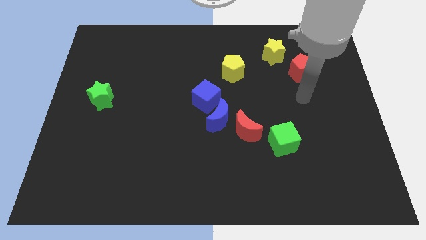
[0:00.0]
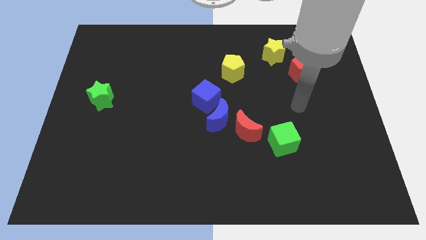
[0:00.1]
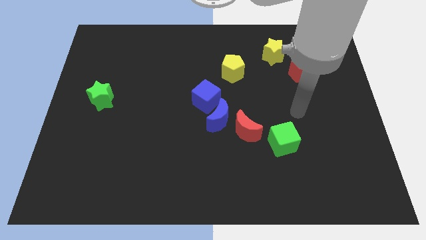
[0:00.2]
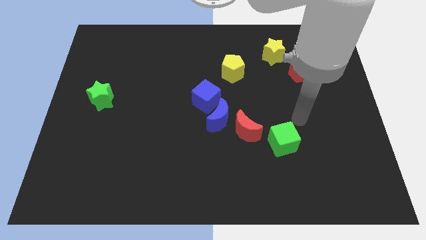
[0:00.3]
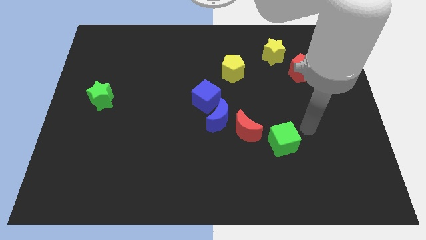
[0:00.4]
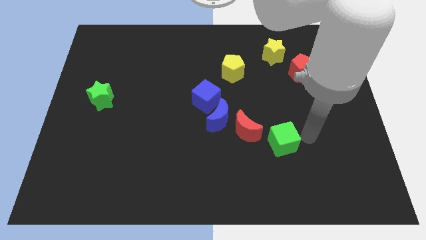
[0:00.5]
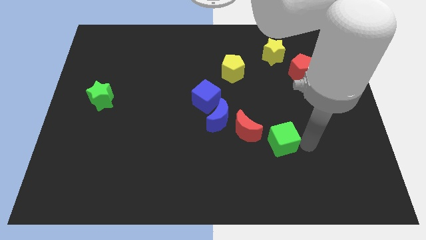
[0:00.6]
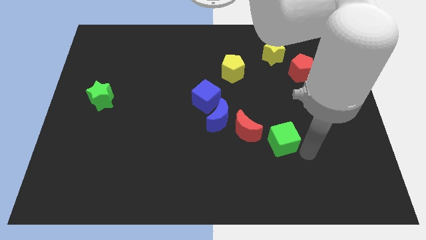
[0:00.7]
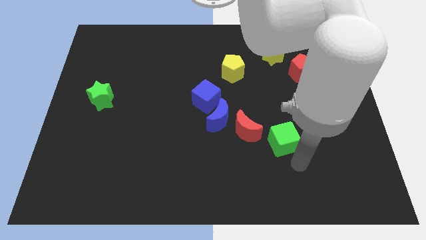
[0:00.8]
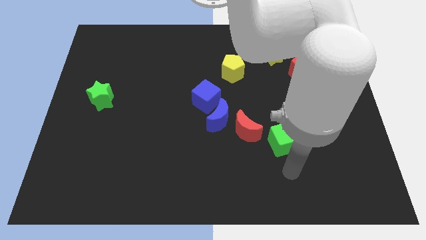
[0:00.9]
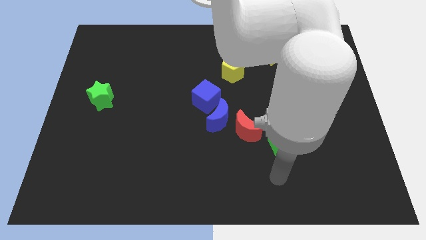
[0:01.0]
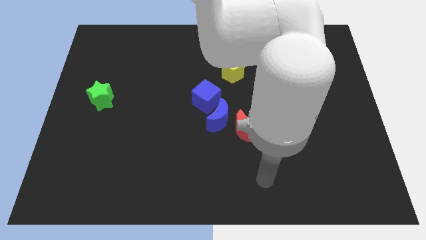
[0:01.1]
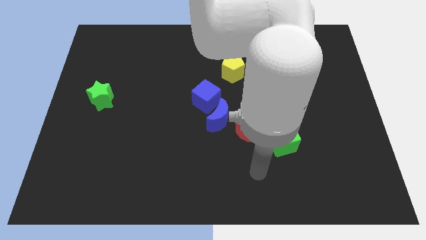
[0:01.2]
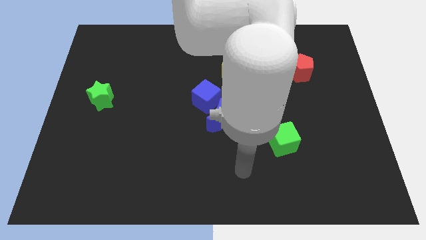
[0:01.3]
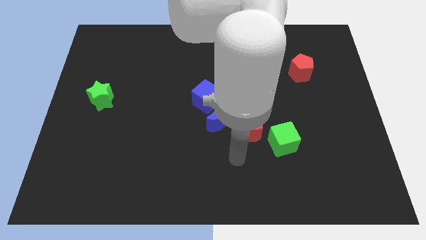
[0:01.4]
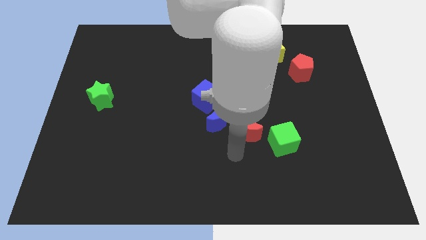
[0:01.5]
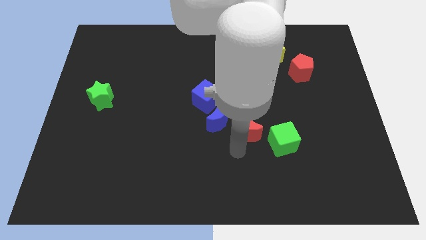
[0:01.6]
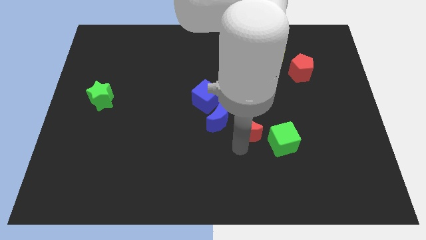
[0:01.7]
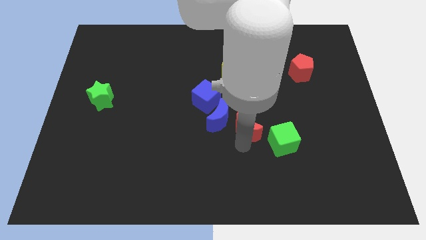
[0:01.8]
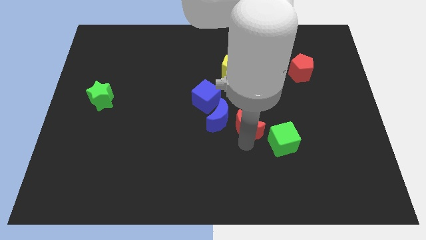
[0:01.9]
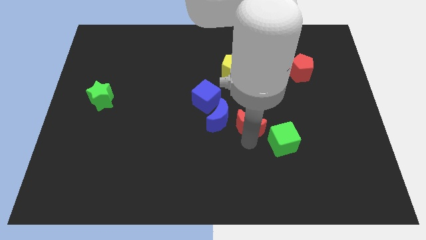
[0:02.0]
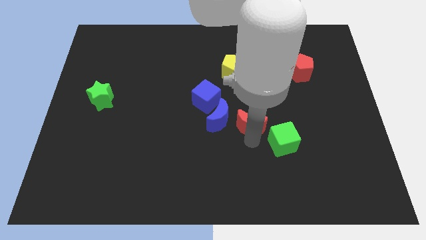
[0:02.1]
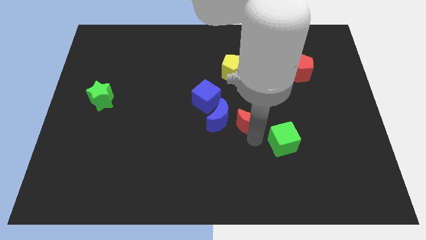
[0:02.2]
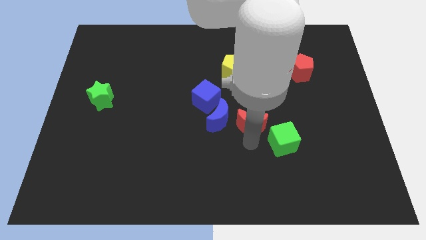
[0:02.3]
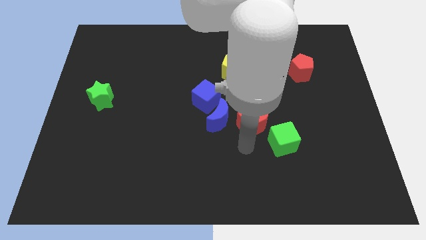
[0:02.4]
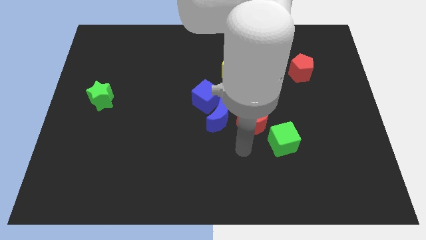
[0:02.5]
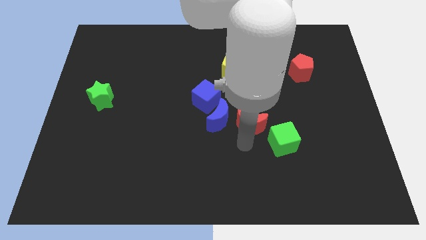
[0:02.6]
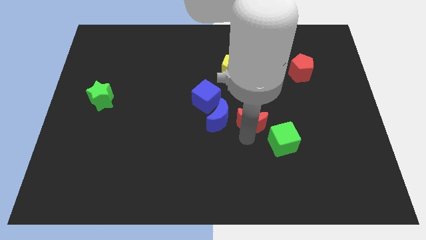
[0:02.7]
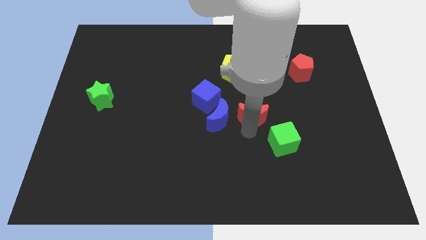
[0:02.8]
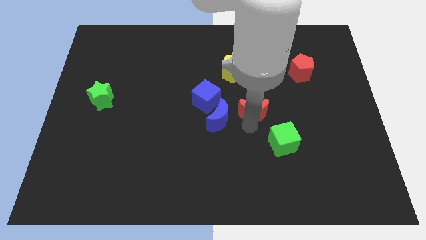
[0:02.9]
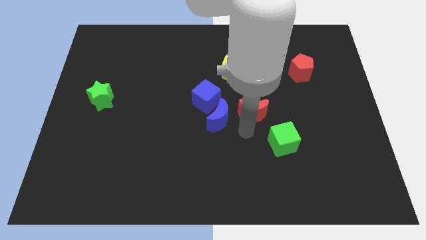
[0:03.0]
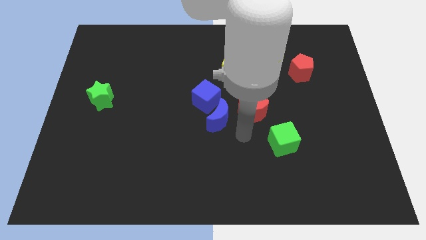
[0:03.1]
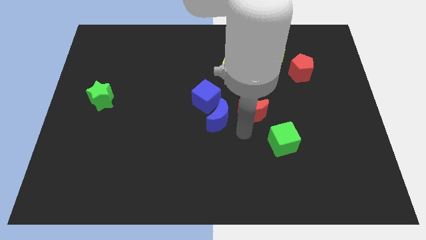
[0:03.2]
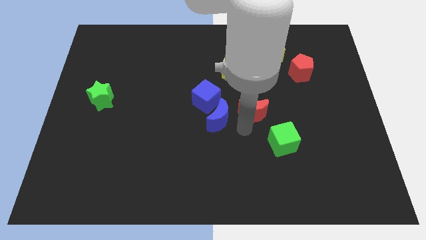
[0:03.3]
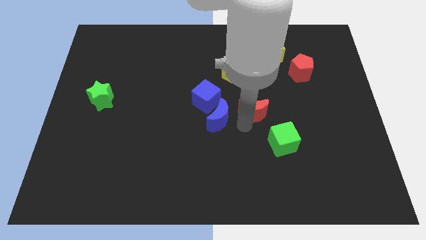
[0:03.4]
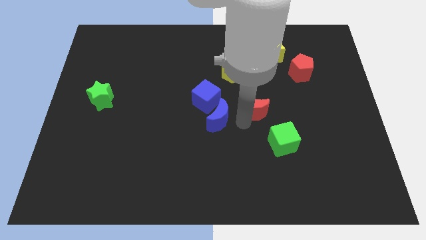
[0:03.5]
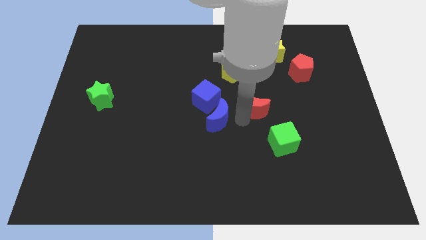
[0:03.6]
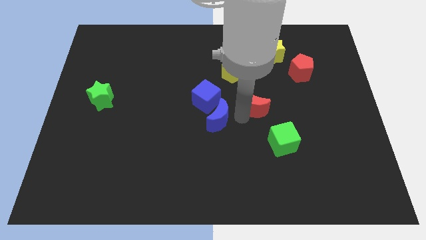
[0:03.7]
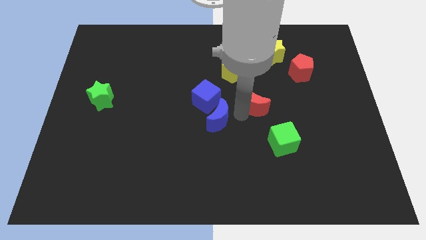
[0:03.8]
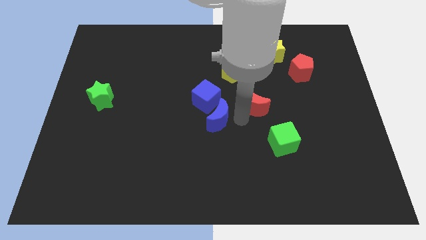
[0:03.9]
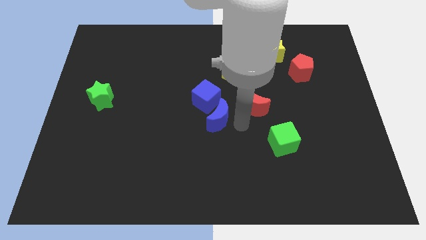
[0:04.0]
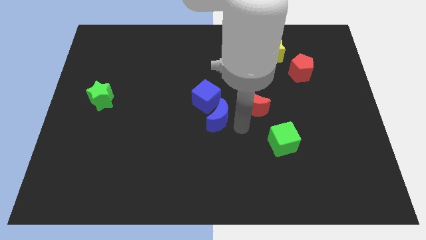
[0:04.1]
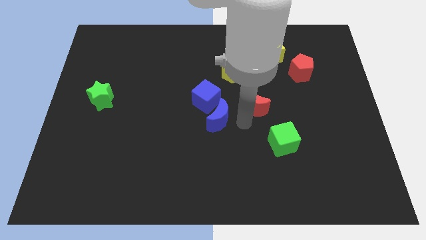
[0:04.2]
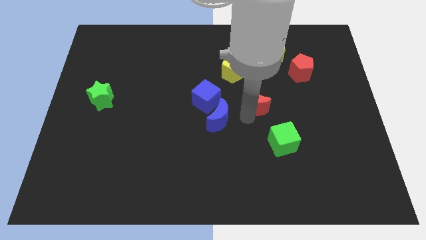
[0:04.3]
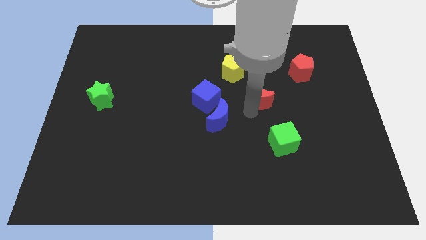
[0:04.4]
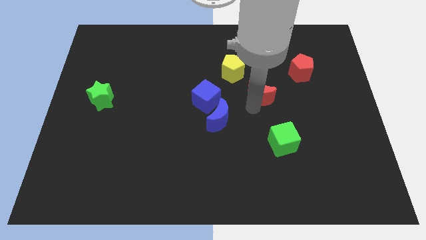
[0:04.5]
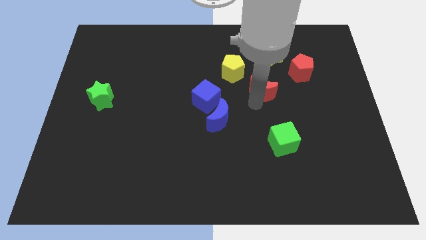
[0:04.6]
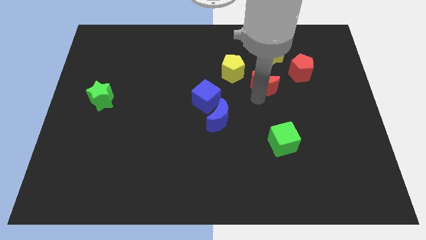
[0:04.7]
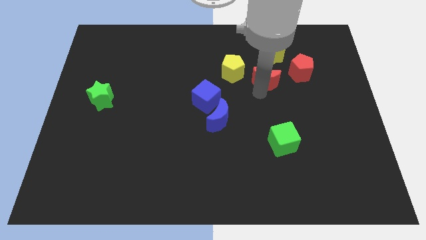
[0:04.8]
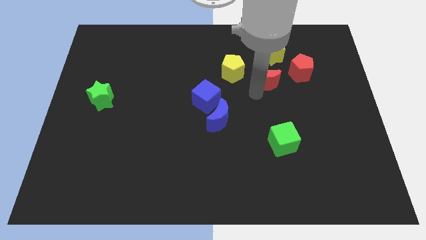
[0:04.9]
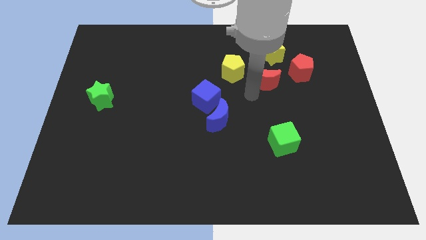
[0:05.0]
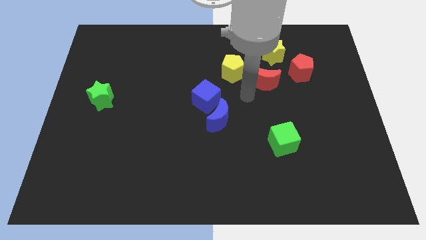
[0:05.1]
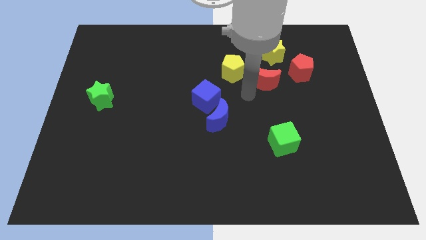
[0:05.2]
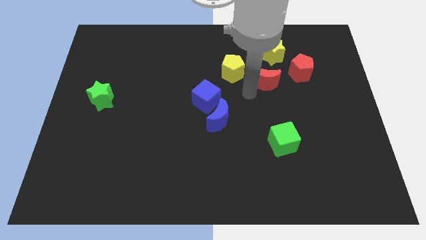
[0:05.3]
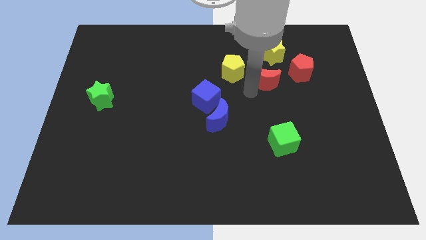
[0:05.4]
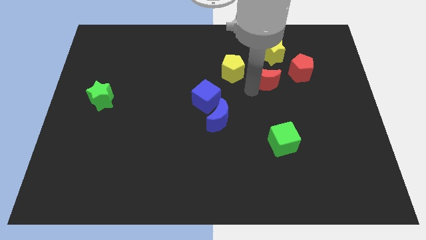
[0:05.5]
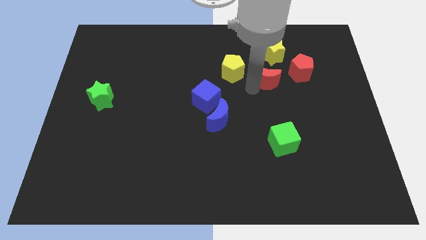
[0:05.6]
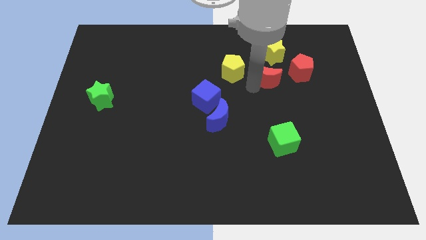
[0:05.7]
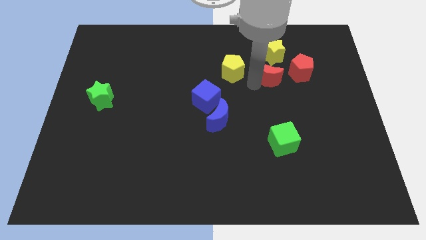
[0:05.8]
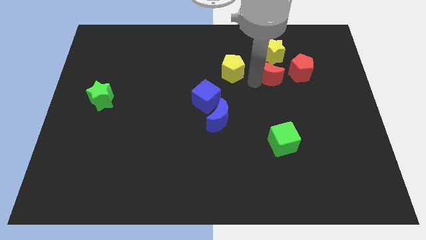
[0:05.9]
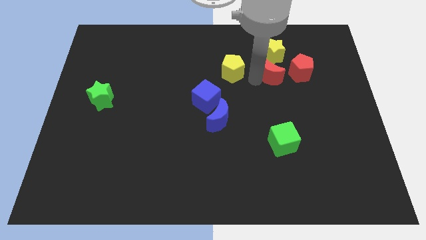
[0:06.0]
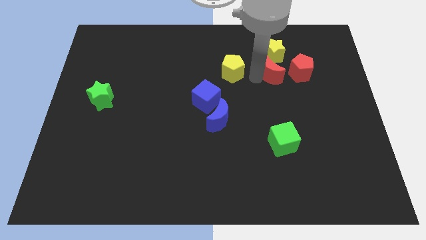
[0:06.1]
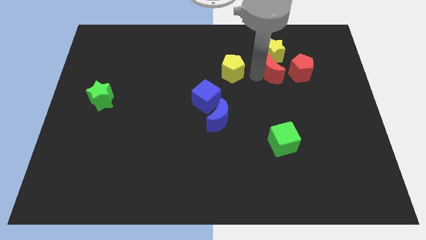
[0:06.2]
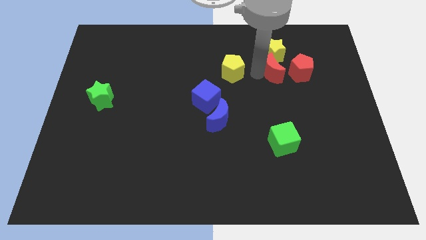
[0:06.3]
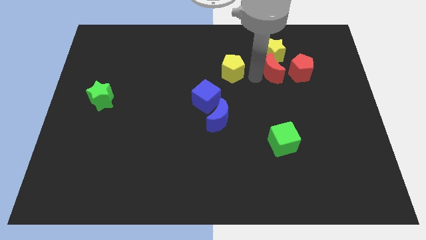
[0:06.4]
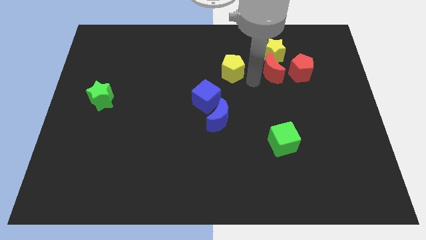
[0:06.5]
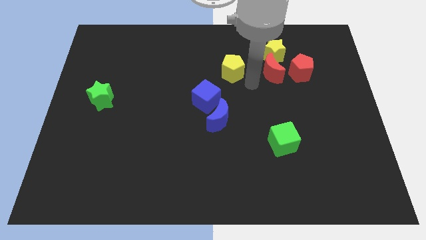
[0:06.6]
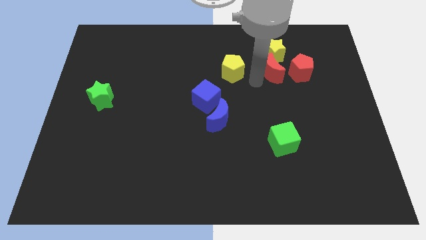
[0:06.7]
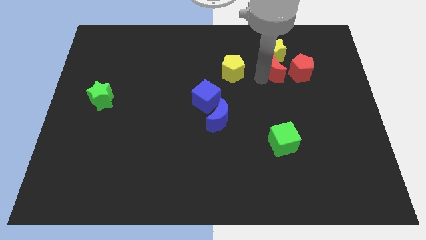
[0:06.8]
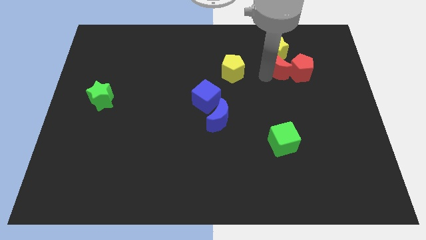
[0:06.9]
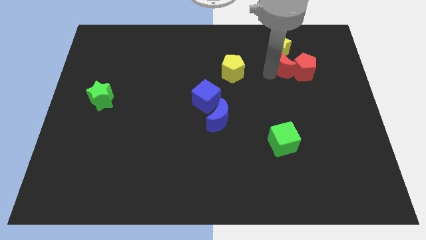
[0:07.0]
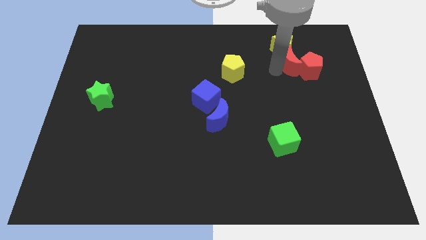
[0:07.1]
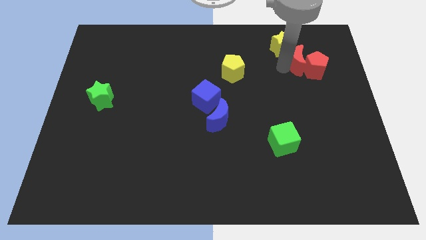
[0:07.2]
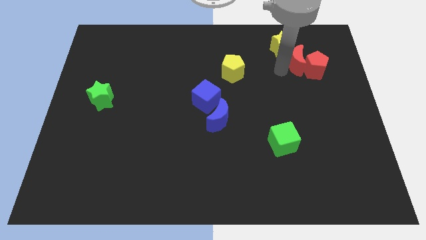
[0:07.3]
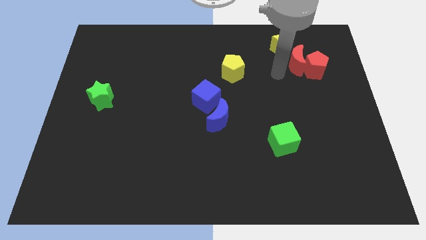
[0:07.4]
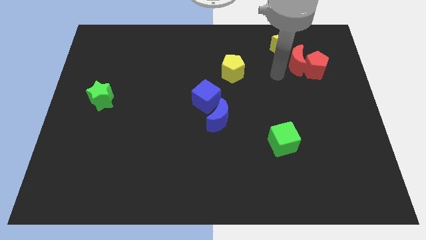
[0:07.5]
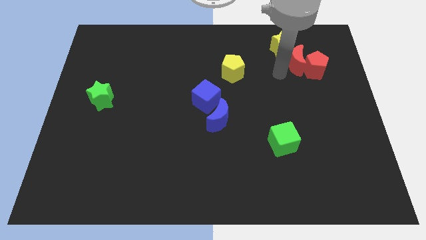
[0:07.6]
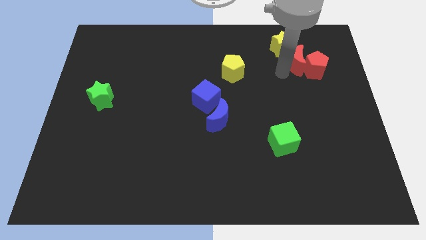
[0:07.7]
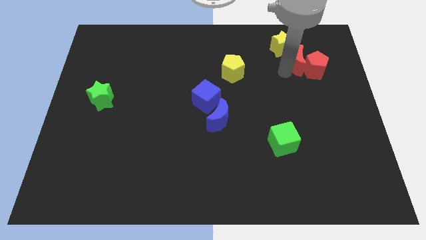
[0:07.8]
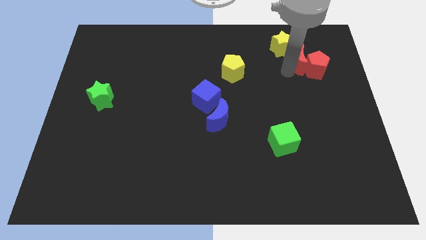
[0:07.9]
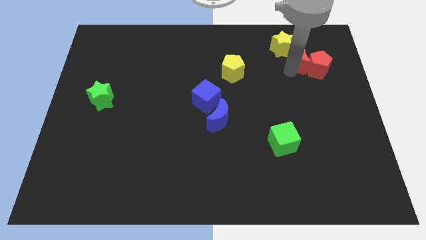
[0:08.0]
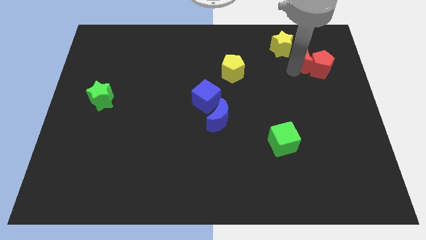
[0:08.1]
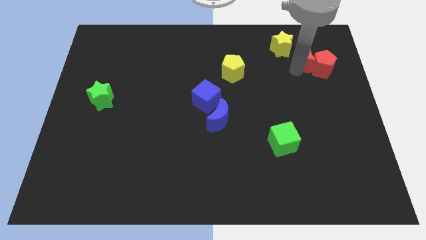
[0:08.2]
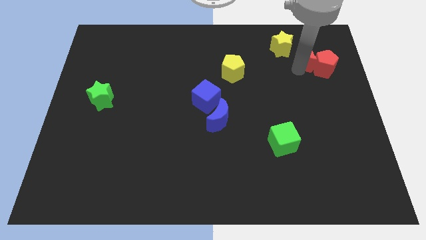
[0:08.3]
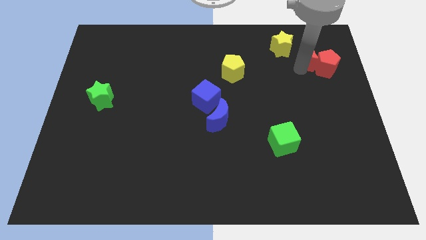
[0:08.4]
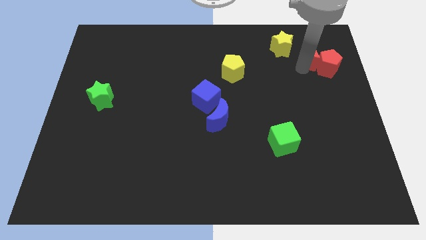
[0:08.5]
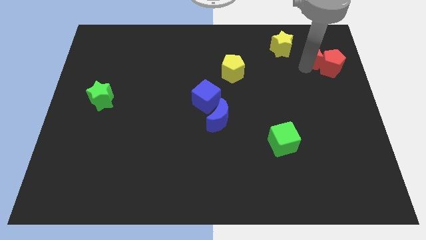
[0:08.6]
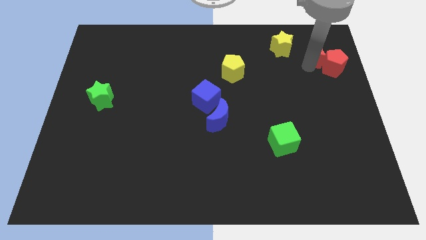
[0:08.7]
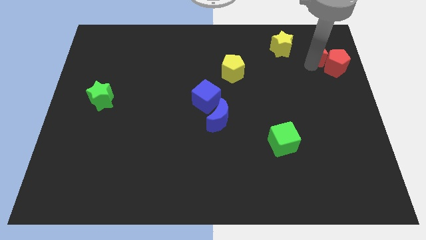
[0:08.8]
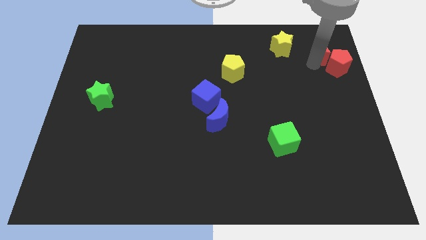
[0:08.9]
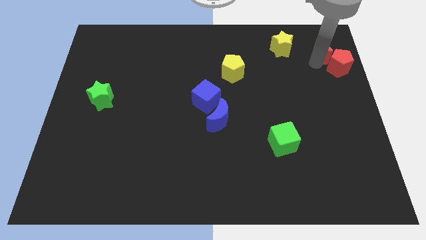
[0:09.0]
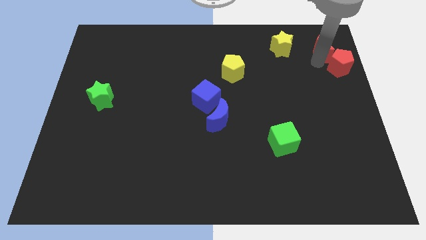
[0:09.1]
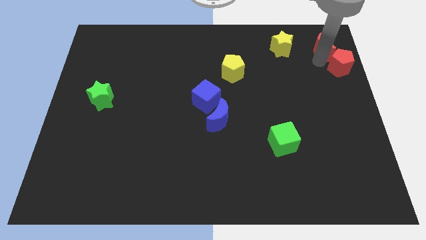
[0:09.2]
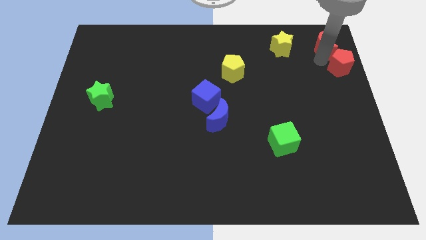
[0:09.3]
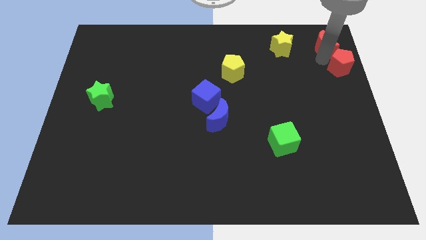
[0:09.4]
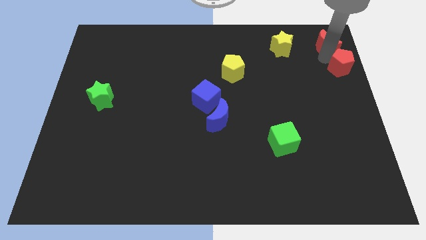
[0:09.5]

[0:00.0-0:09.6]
push the red moon to the top right corner
